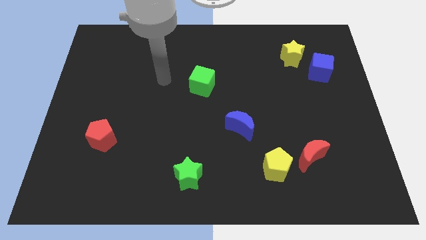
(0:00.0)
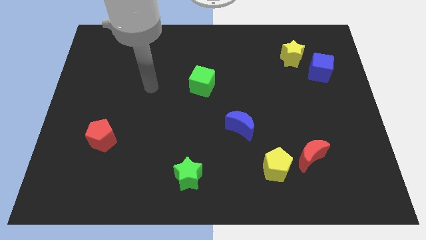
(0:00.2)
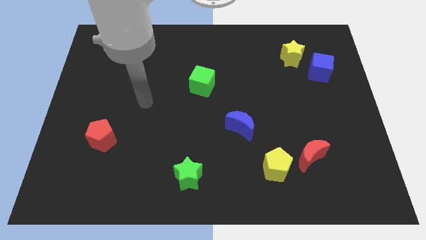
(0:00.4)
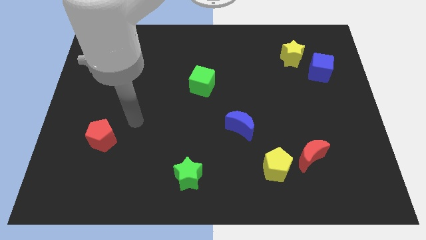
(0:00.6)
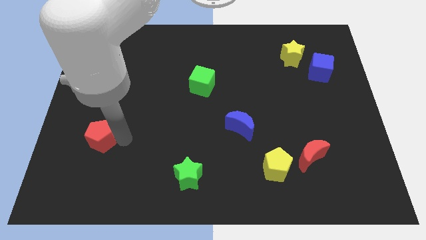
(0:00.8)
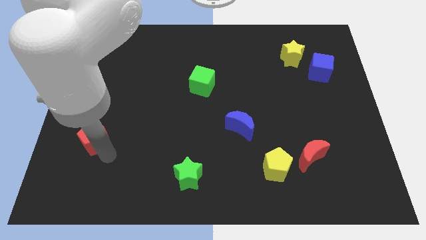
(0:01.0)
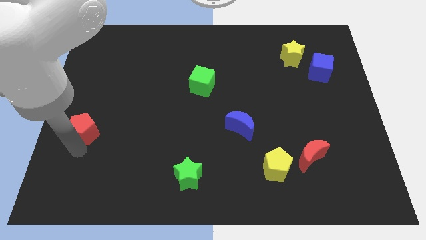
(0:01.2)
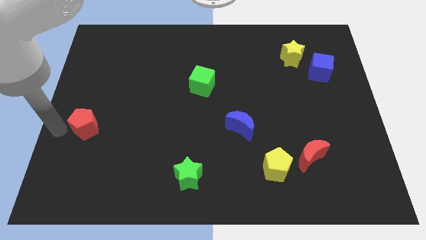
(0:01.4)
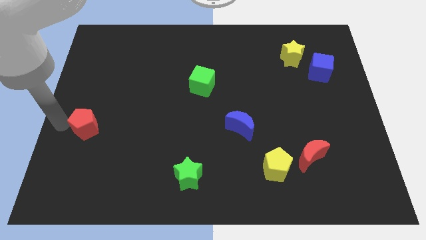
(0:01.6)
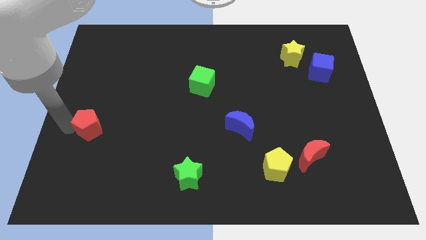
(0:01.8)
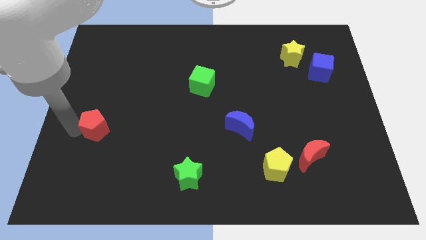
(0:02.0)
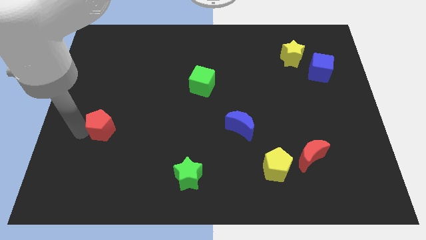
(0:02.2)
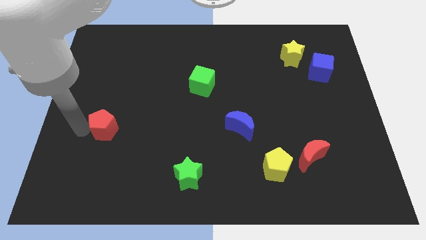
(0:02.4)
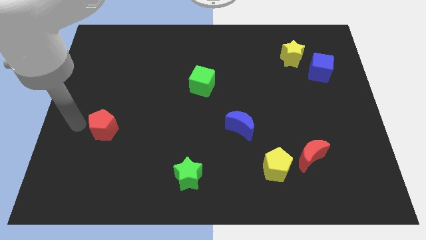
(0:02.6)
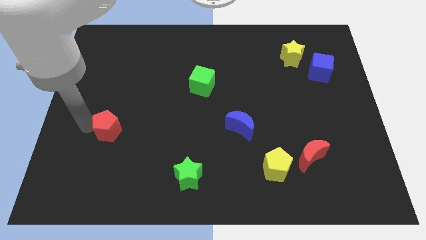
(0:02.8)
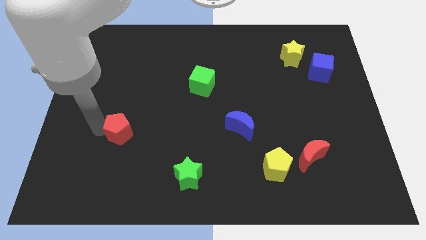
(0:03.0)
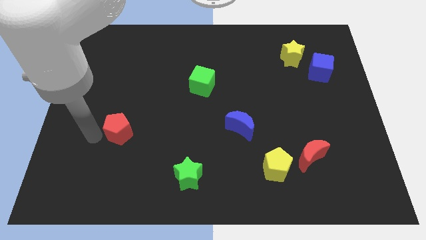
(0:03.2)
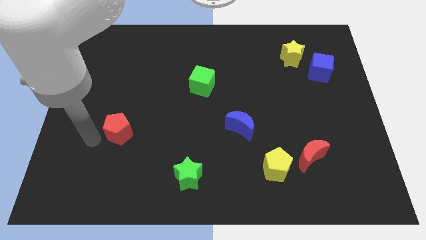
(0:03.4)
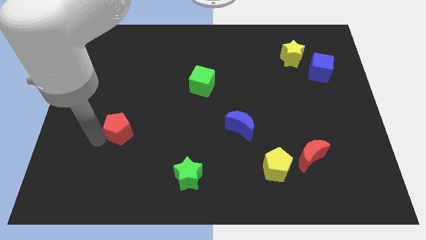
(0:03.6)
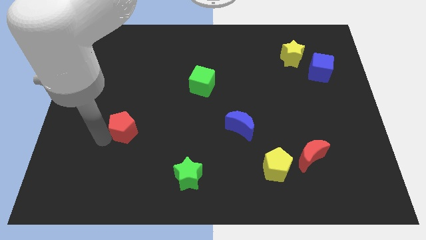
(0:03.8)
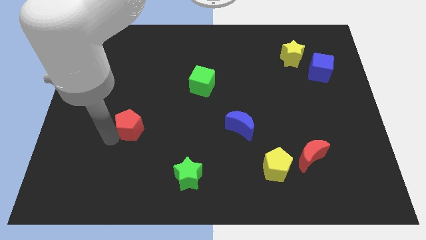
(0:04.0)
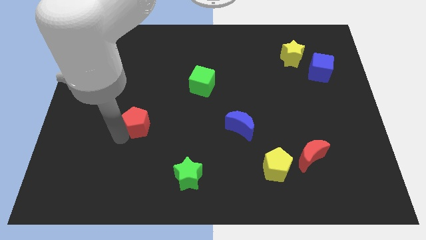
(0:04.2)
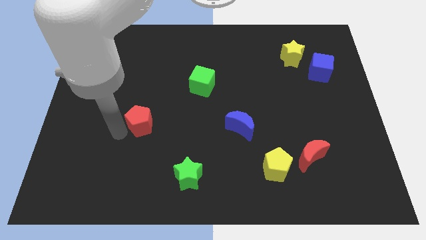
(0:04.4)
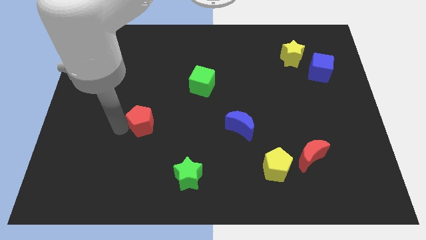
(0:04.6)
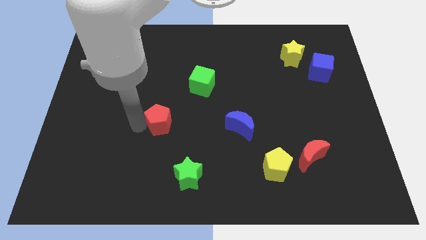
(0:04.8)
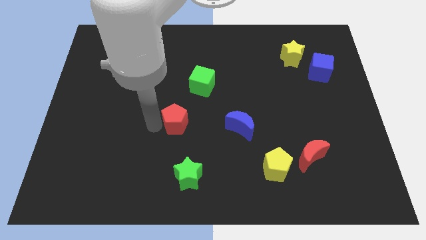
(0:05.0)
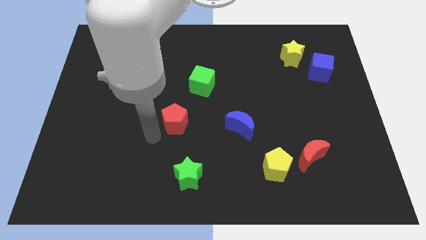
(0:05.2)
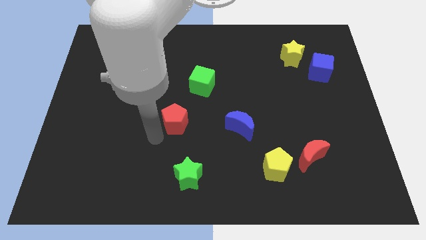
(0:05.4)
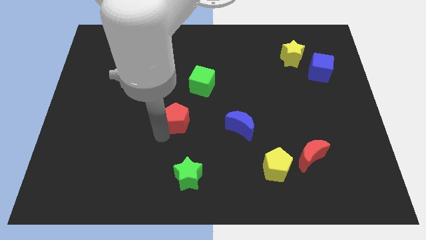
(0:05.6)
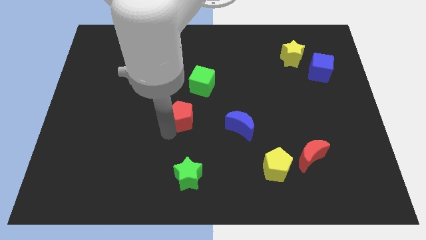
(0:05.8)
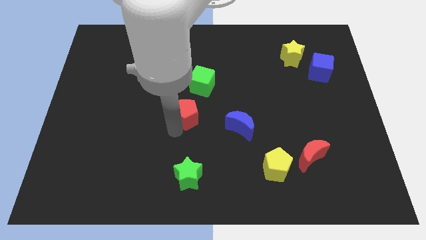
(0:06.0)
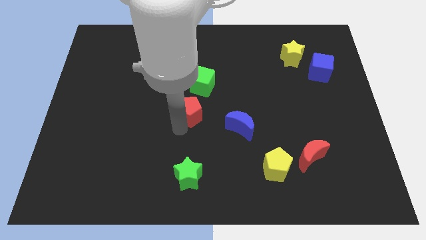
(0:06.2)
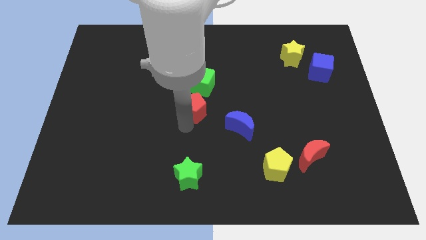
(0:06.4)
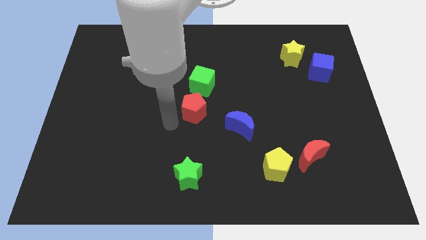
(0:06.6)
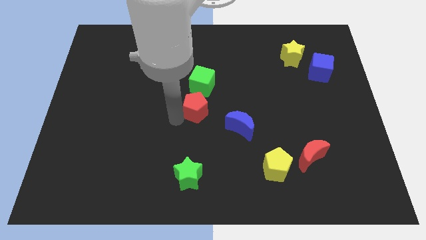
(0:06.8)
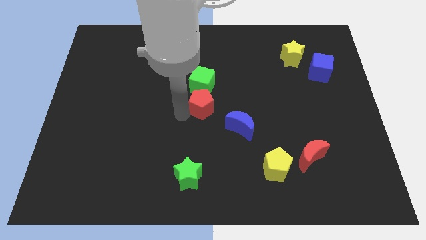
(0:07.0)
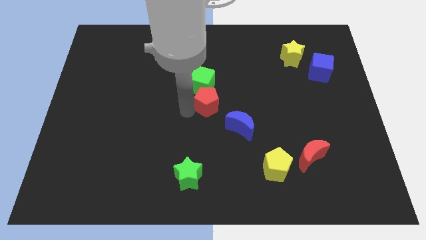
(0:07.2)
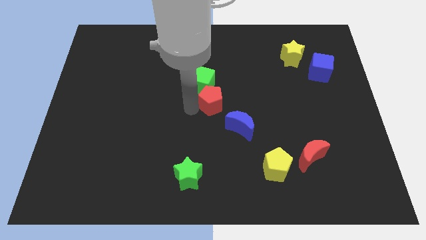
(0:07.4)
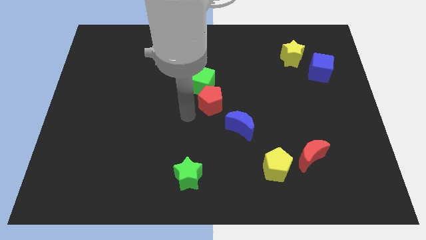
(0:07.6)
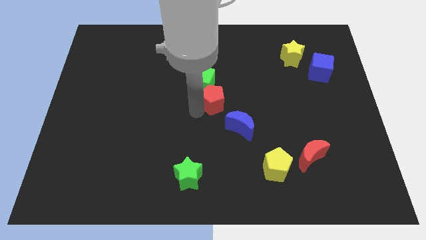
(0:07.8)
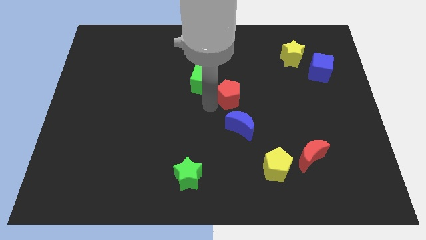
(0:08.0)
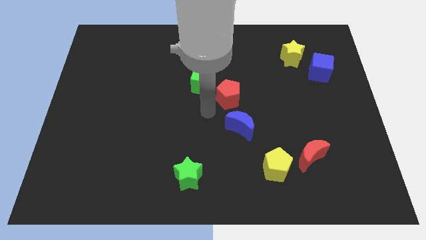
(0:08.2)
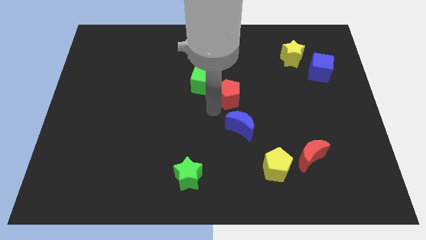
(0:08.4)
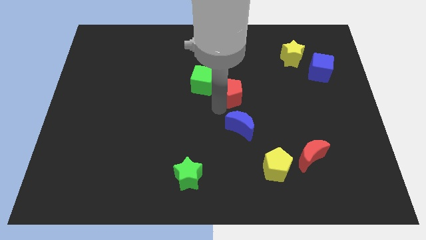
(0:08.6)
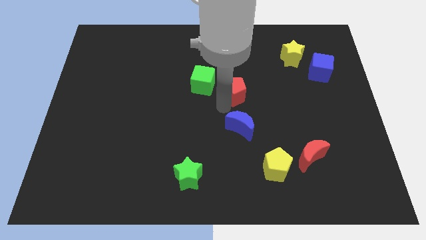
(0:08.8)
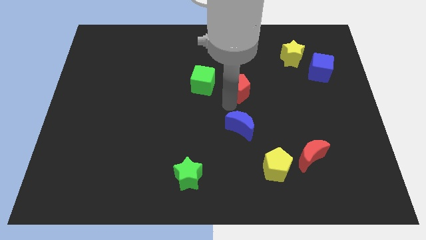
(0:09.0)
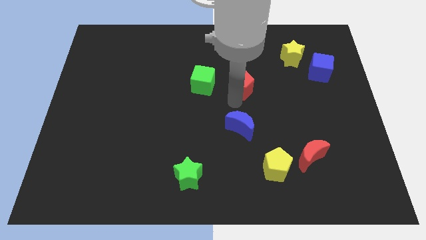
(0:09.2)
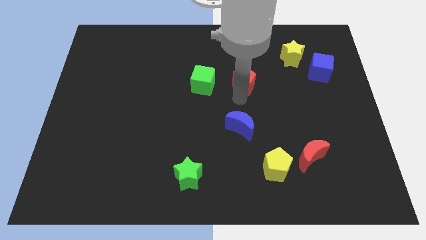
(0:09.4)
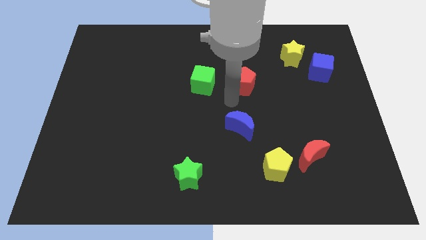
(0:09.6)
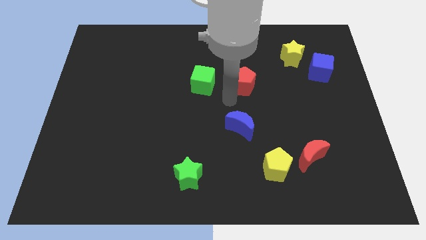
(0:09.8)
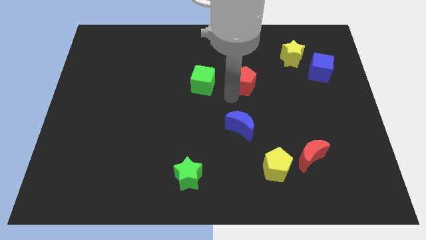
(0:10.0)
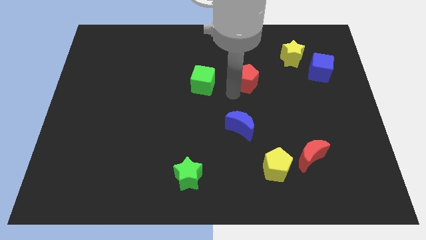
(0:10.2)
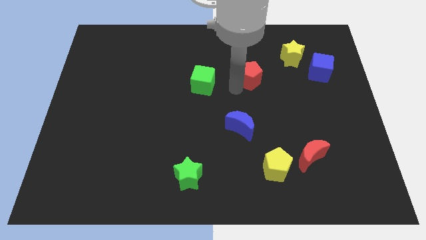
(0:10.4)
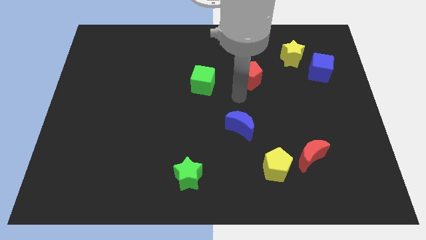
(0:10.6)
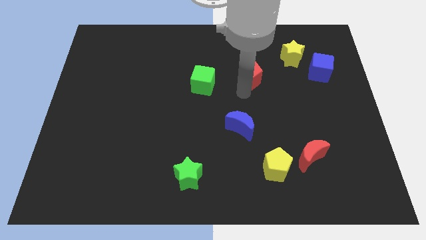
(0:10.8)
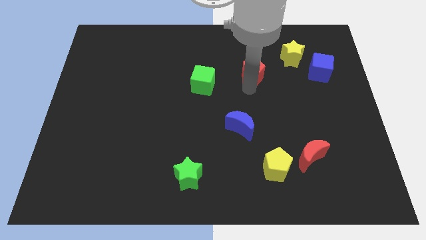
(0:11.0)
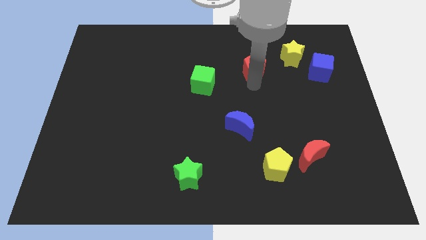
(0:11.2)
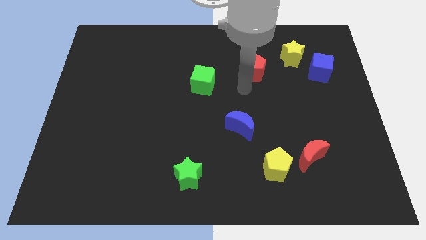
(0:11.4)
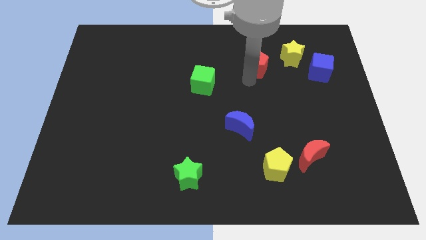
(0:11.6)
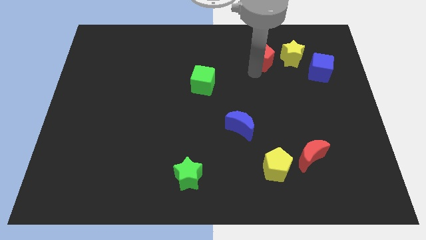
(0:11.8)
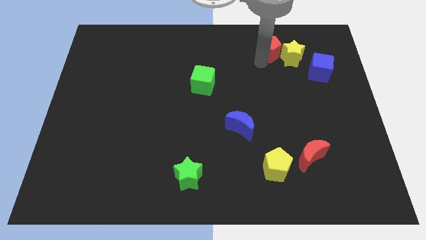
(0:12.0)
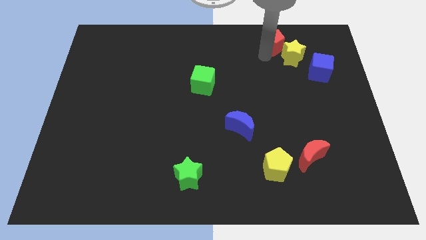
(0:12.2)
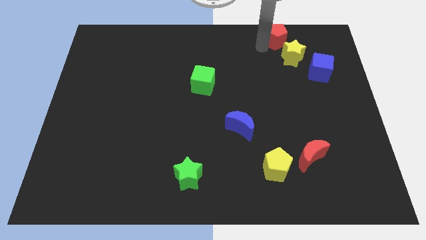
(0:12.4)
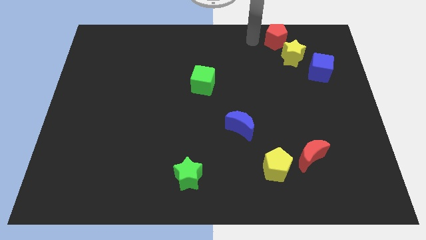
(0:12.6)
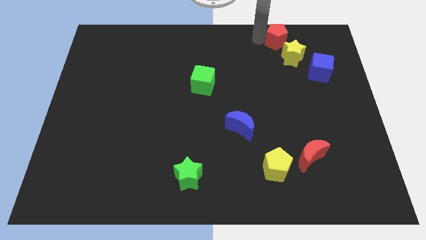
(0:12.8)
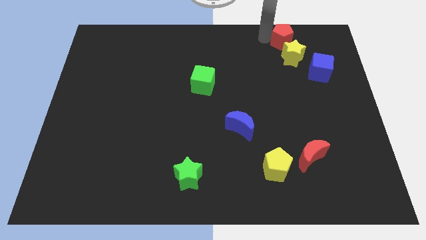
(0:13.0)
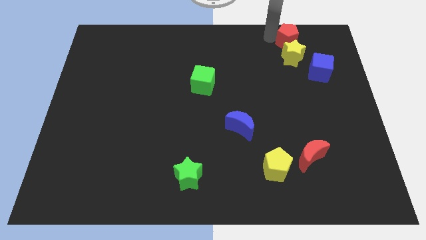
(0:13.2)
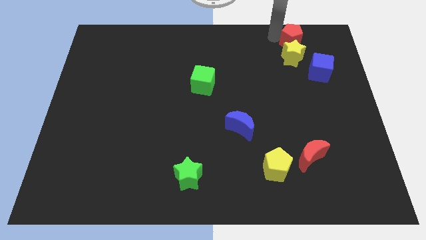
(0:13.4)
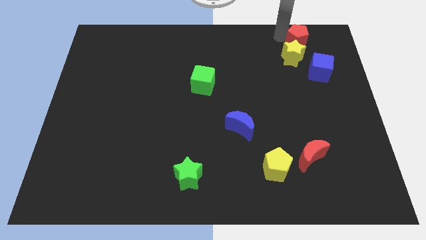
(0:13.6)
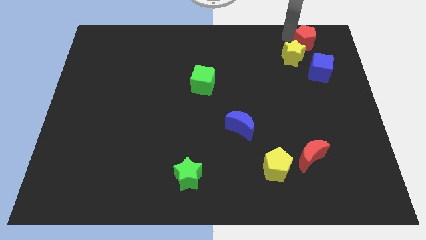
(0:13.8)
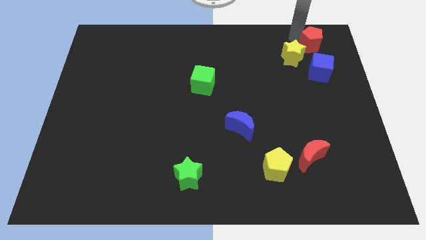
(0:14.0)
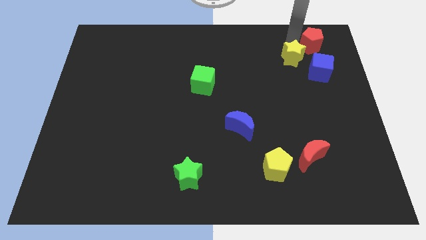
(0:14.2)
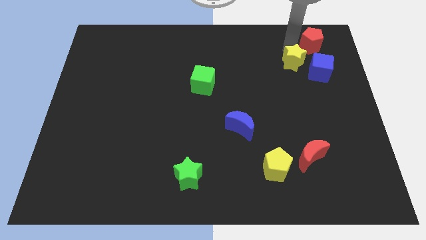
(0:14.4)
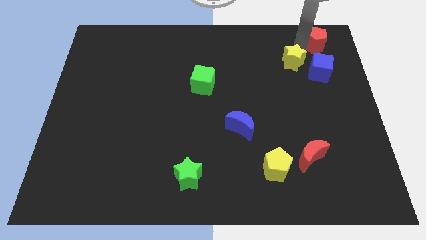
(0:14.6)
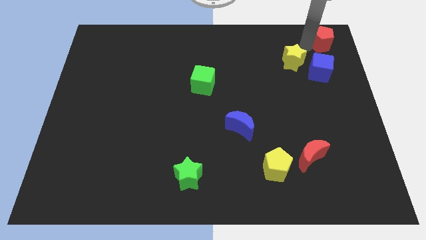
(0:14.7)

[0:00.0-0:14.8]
push the red pentagon to the upper right corner
